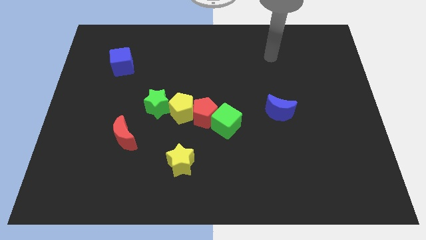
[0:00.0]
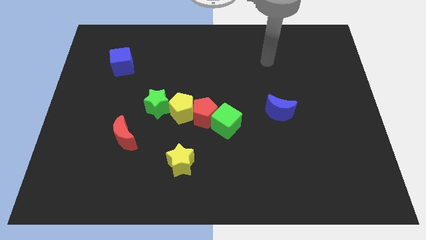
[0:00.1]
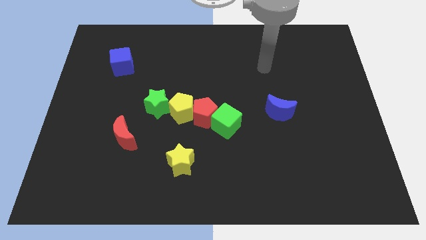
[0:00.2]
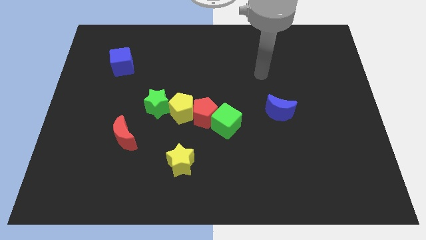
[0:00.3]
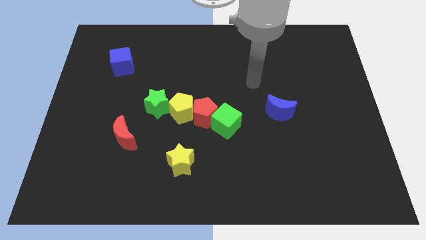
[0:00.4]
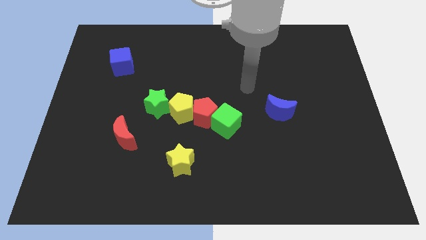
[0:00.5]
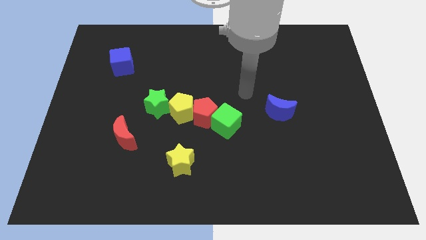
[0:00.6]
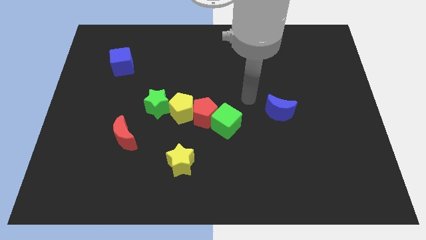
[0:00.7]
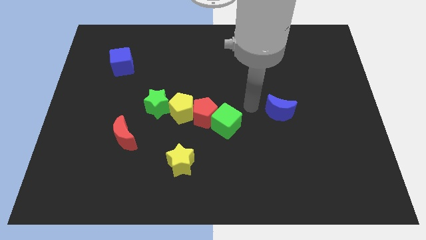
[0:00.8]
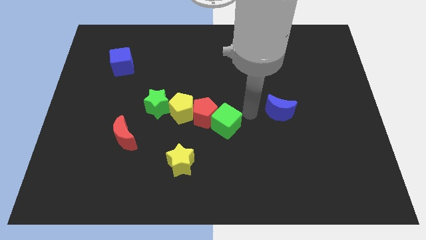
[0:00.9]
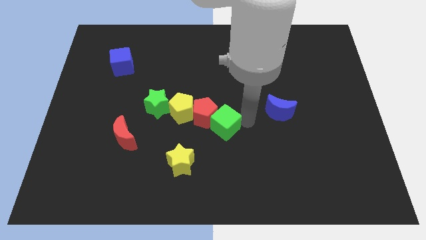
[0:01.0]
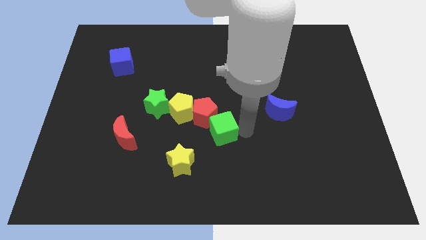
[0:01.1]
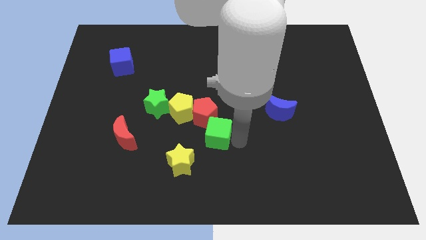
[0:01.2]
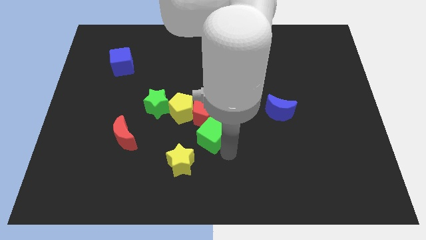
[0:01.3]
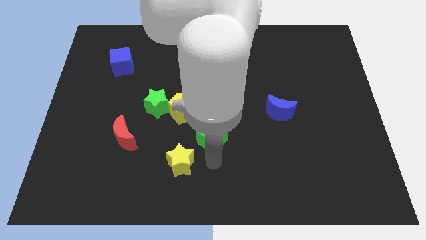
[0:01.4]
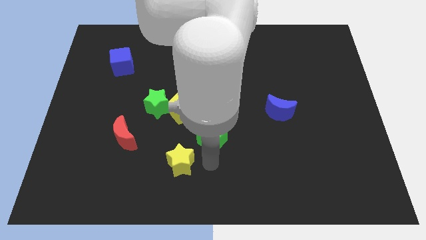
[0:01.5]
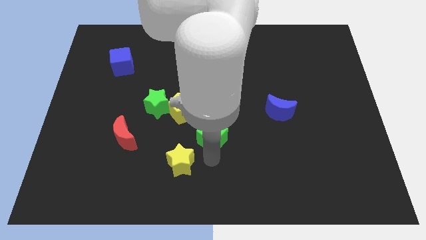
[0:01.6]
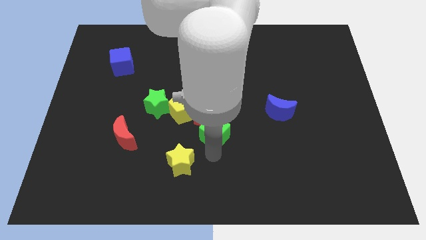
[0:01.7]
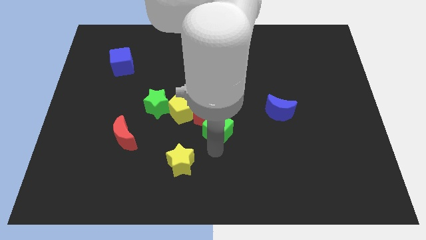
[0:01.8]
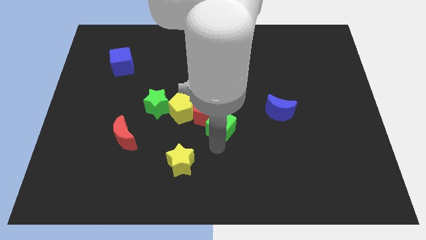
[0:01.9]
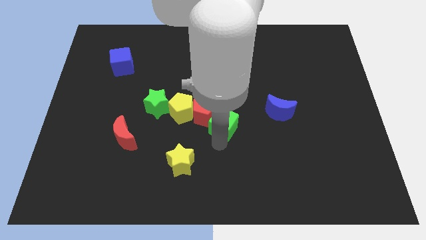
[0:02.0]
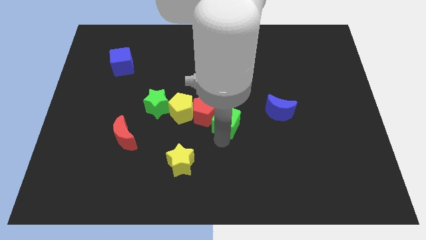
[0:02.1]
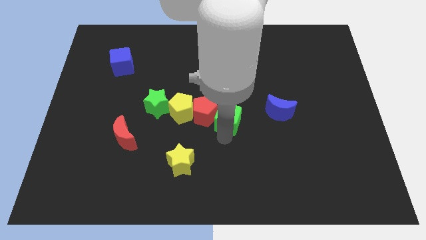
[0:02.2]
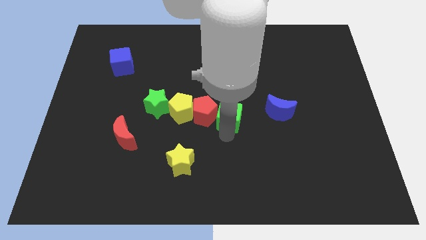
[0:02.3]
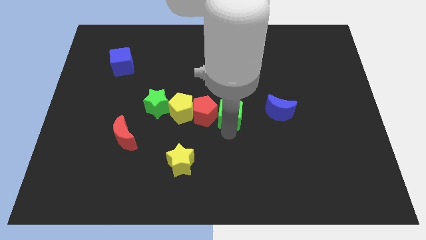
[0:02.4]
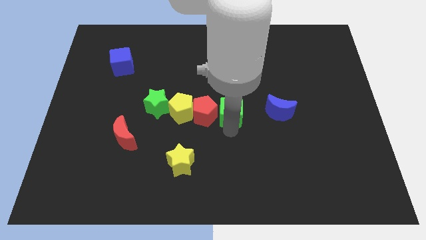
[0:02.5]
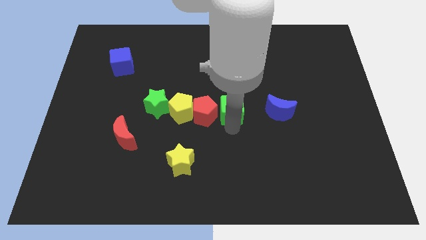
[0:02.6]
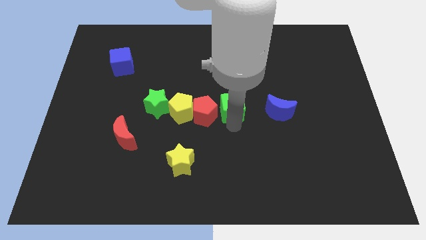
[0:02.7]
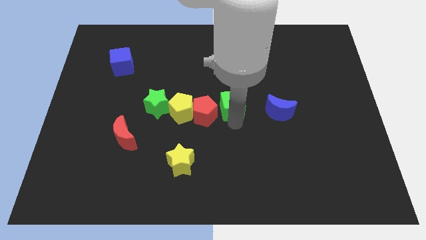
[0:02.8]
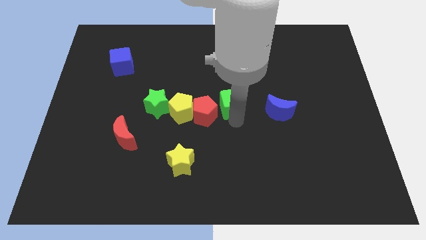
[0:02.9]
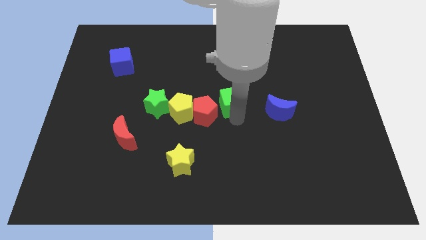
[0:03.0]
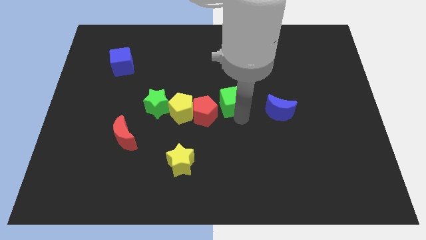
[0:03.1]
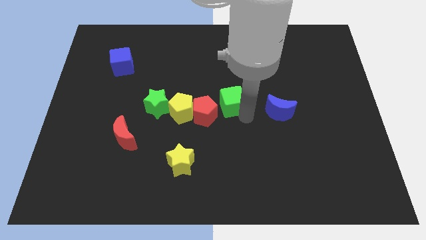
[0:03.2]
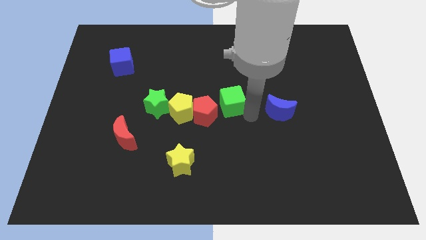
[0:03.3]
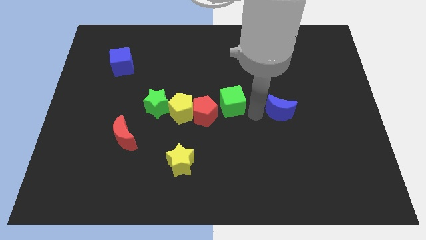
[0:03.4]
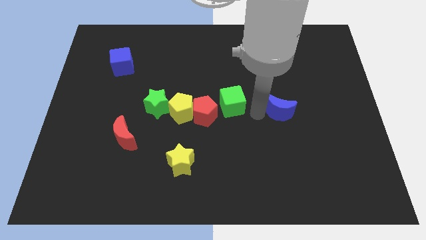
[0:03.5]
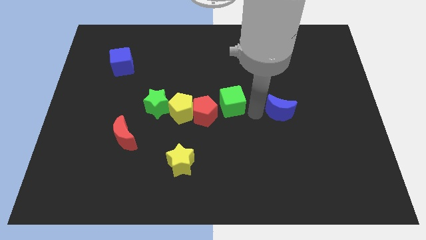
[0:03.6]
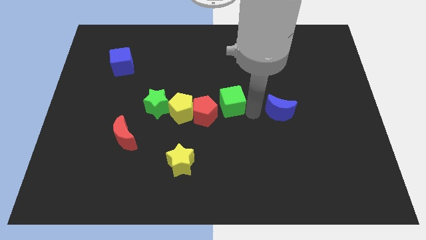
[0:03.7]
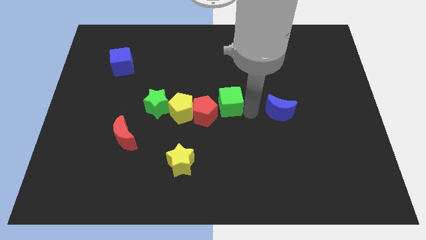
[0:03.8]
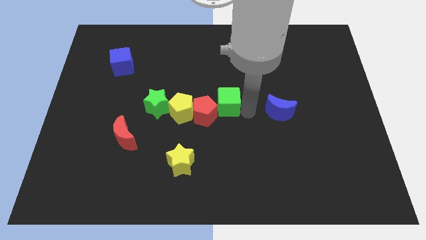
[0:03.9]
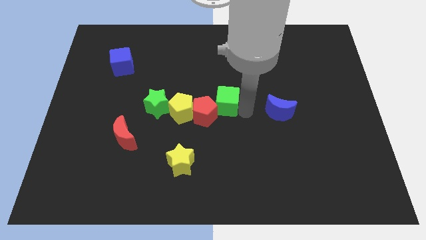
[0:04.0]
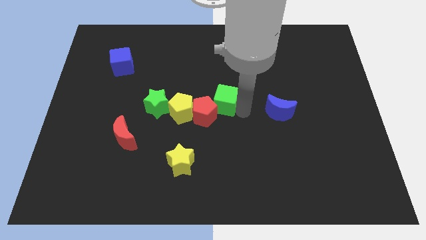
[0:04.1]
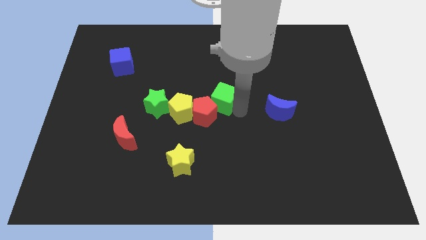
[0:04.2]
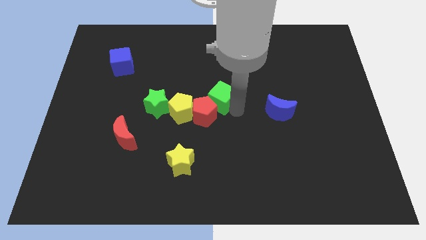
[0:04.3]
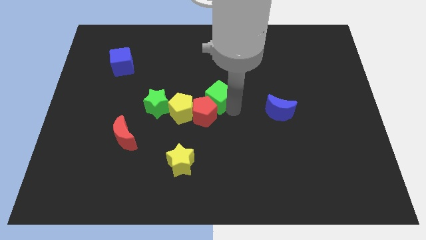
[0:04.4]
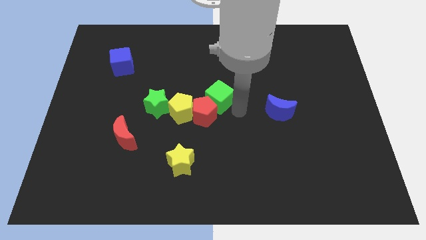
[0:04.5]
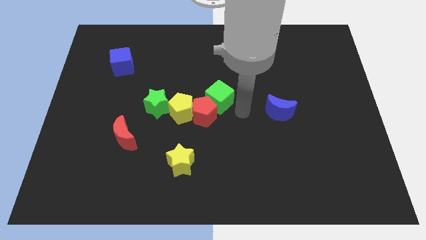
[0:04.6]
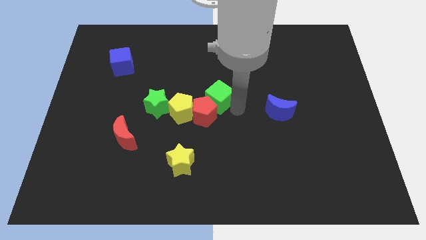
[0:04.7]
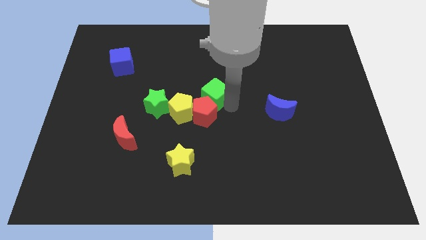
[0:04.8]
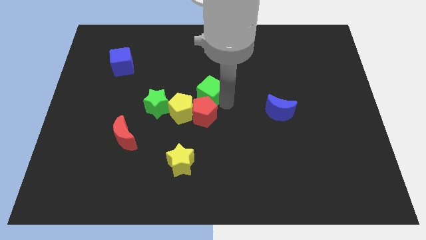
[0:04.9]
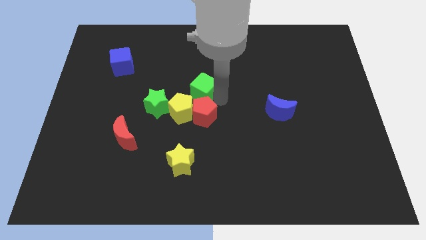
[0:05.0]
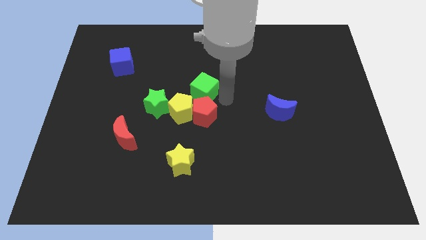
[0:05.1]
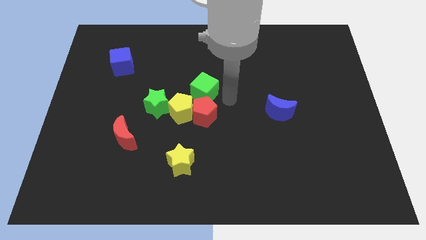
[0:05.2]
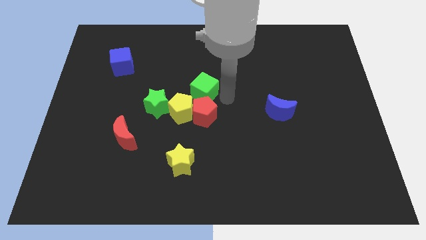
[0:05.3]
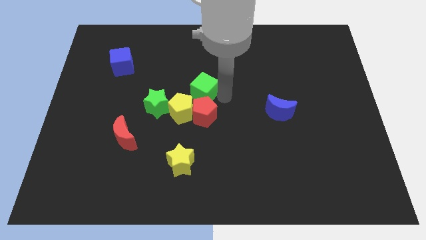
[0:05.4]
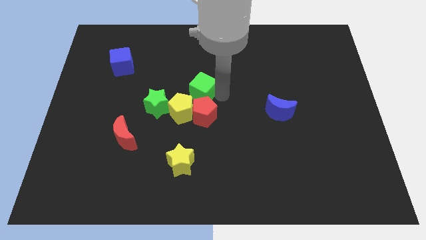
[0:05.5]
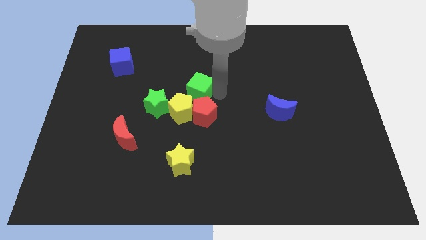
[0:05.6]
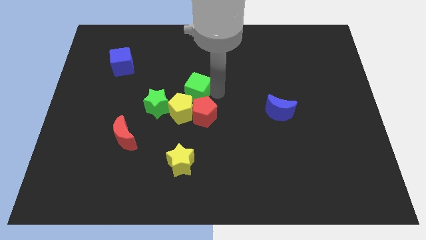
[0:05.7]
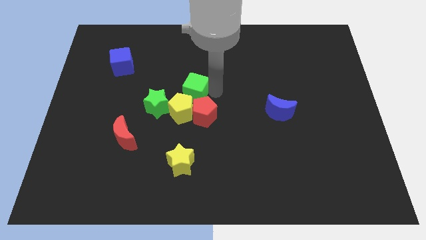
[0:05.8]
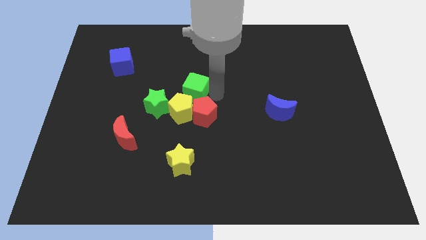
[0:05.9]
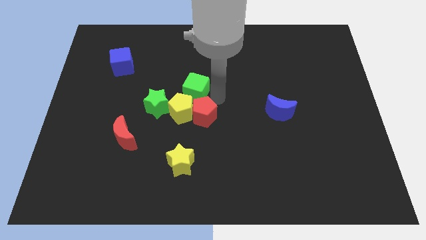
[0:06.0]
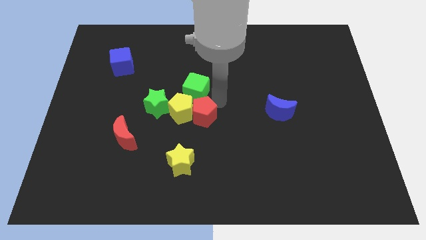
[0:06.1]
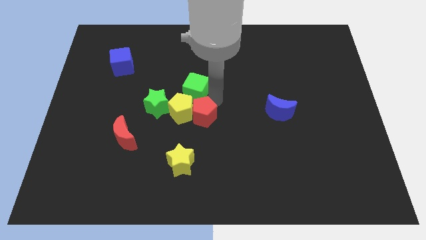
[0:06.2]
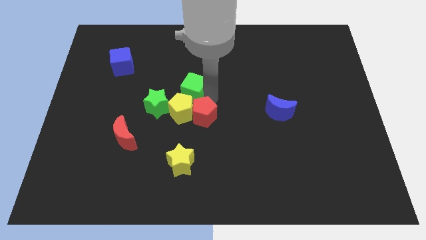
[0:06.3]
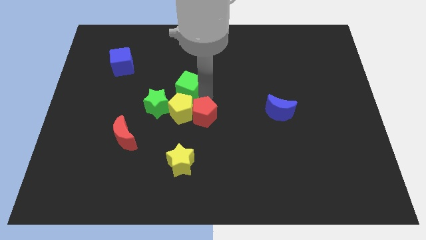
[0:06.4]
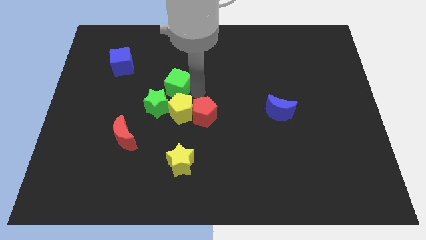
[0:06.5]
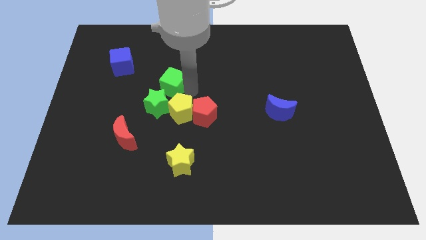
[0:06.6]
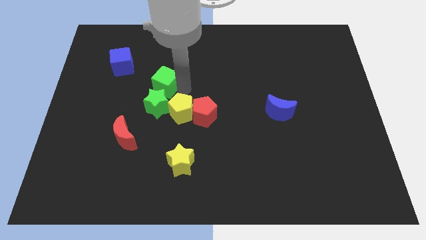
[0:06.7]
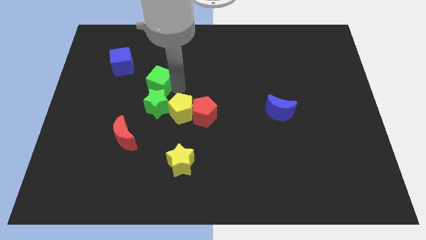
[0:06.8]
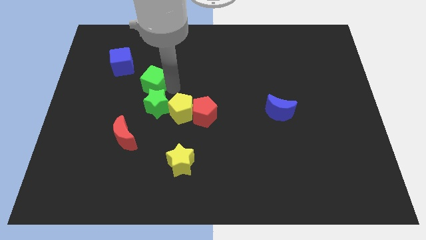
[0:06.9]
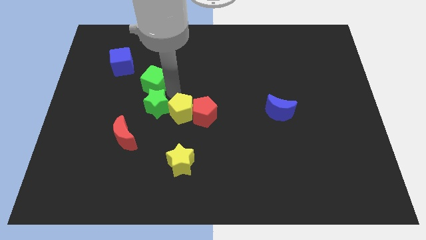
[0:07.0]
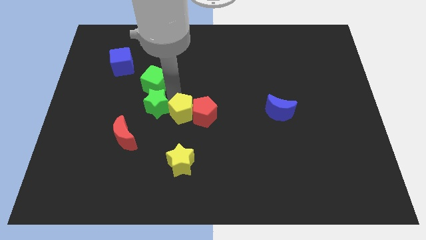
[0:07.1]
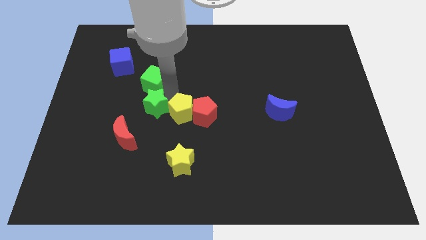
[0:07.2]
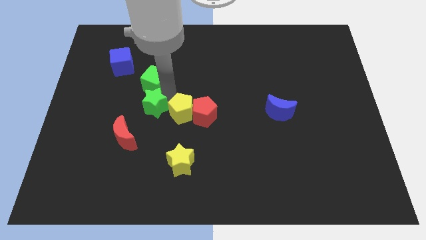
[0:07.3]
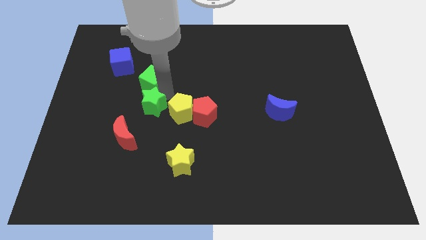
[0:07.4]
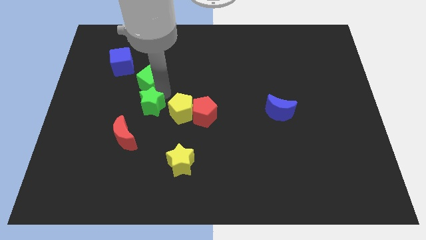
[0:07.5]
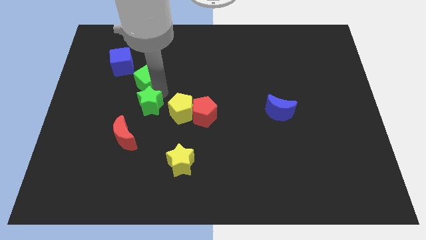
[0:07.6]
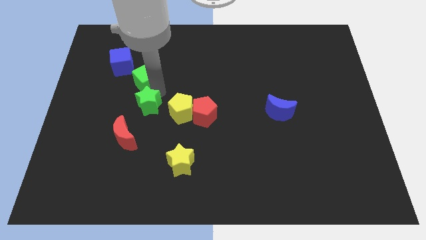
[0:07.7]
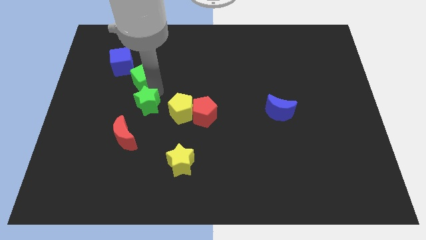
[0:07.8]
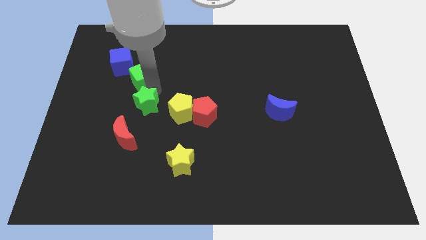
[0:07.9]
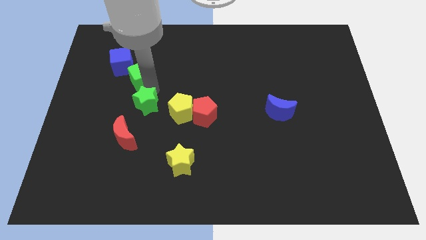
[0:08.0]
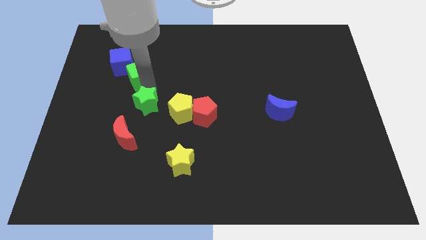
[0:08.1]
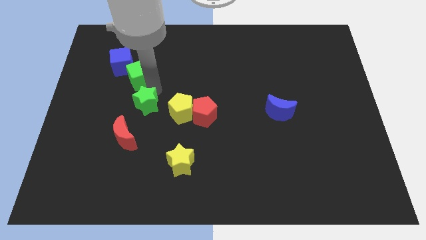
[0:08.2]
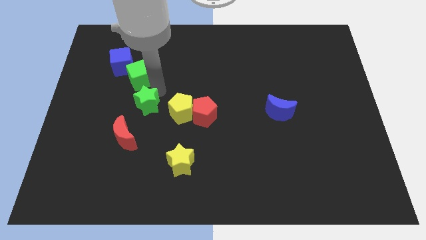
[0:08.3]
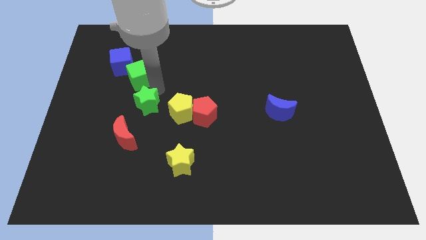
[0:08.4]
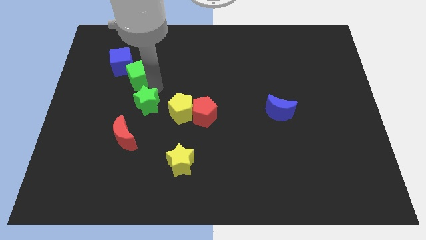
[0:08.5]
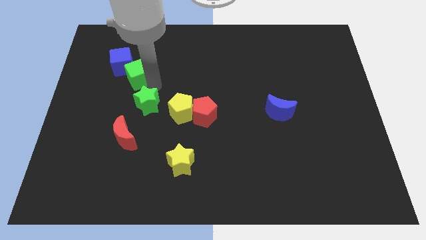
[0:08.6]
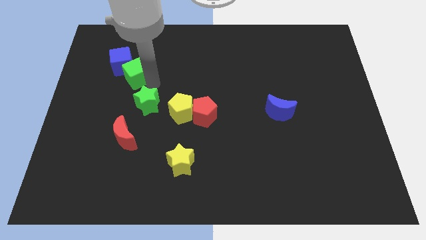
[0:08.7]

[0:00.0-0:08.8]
slide the green cube next to the blue cube
